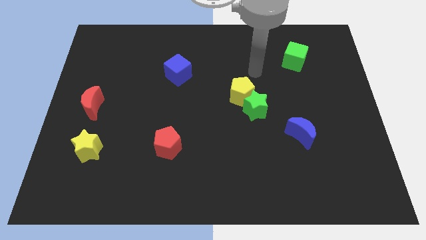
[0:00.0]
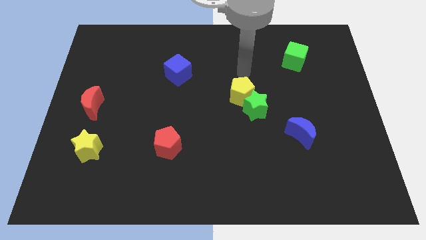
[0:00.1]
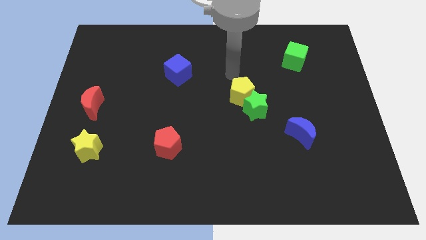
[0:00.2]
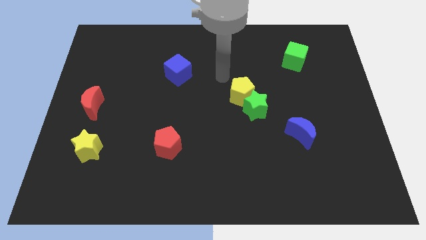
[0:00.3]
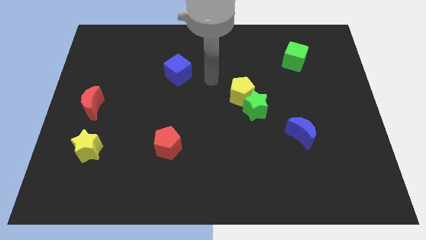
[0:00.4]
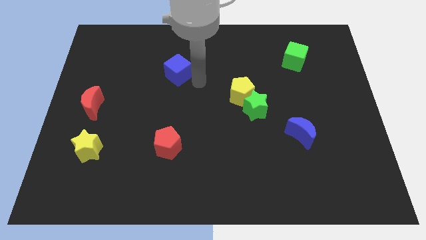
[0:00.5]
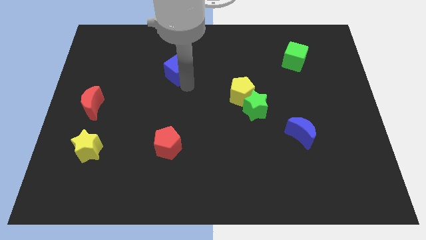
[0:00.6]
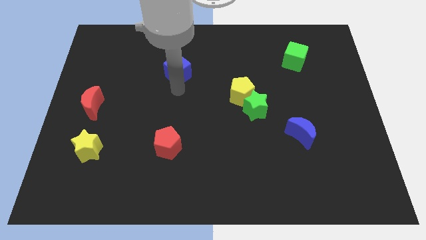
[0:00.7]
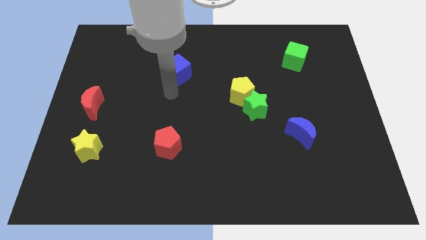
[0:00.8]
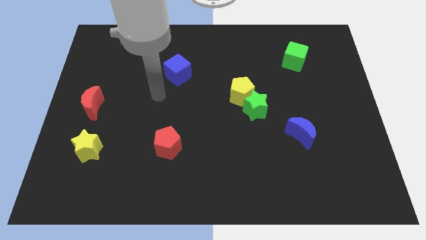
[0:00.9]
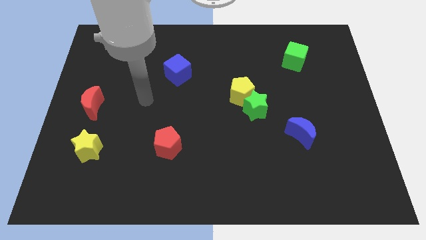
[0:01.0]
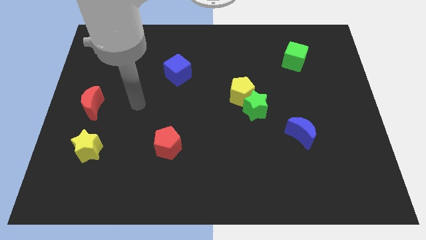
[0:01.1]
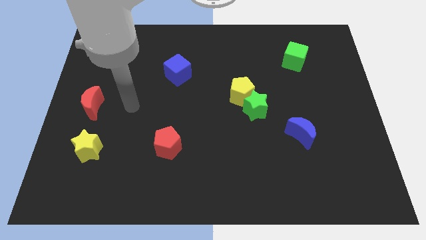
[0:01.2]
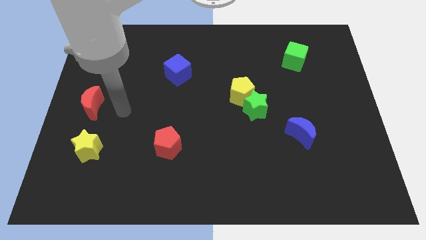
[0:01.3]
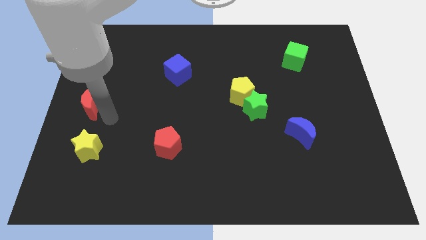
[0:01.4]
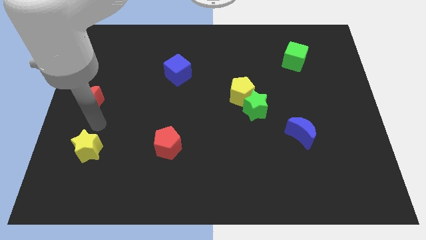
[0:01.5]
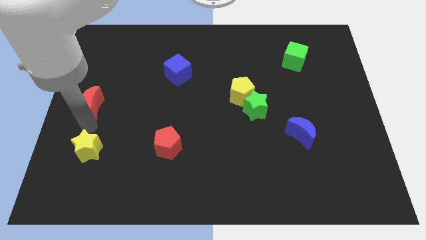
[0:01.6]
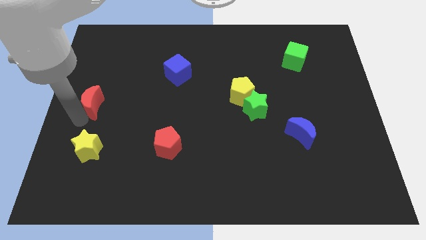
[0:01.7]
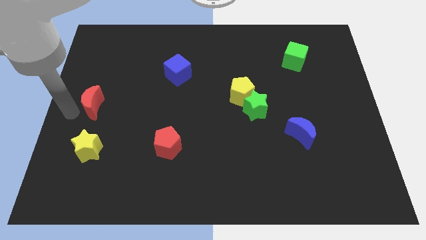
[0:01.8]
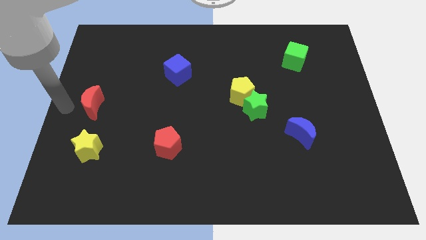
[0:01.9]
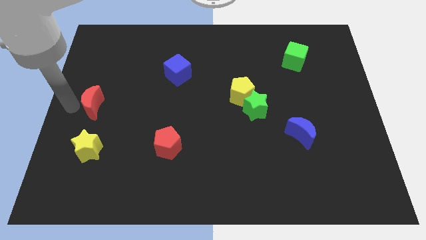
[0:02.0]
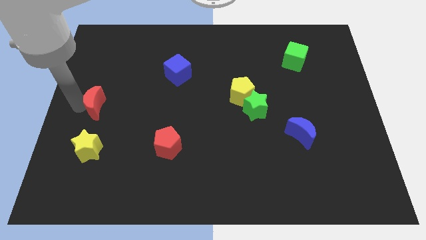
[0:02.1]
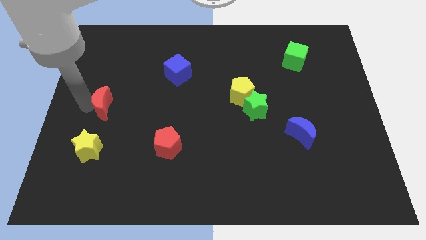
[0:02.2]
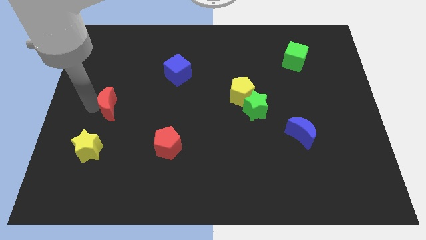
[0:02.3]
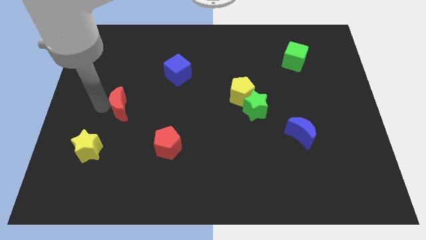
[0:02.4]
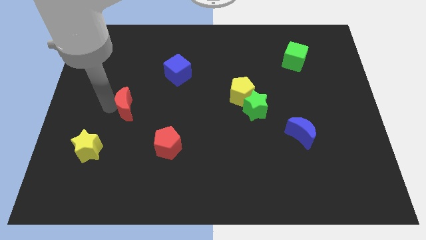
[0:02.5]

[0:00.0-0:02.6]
slightly push the red moon to the right

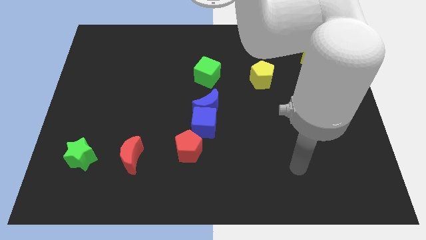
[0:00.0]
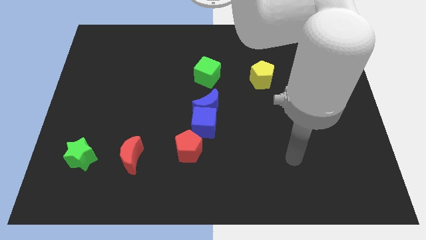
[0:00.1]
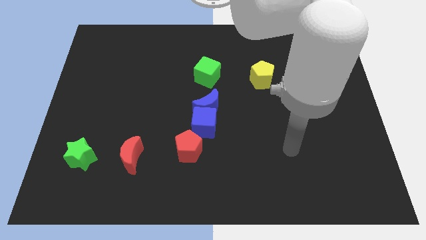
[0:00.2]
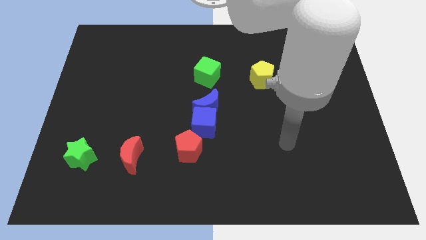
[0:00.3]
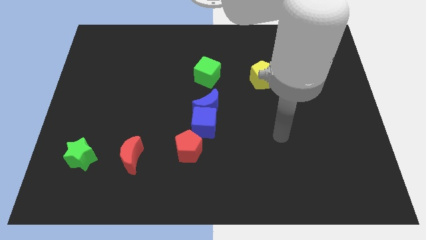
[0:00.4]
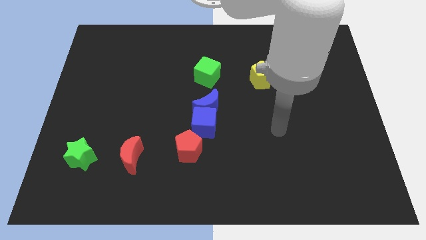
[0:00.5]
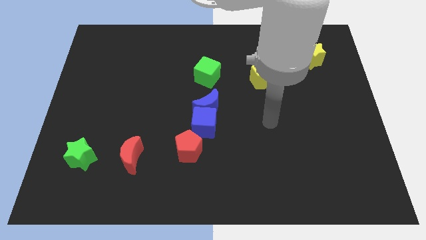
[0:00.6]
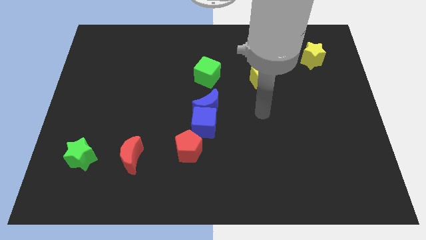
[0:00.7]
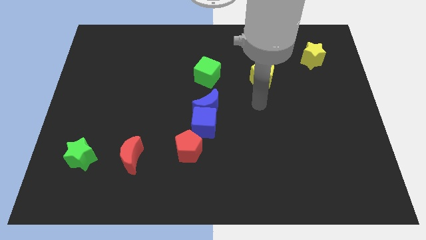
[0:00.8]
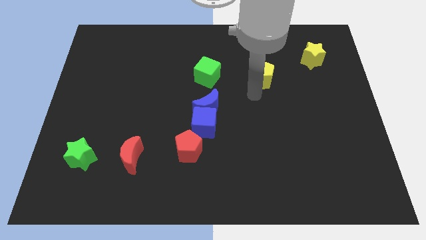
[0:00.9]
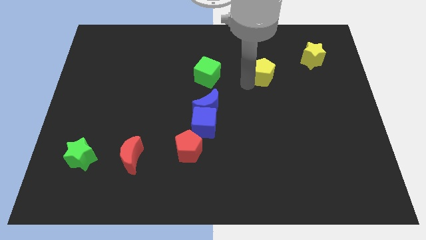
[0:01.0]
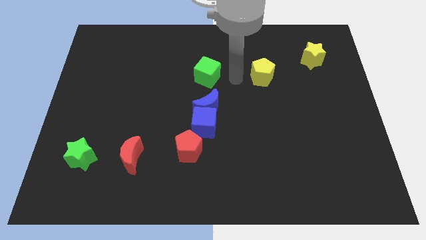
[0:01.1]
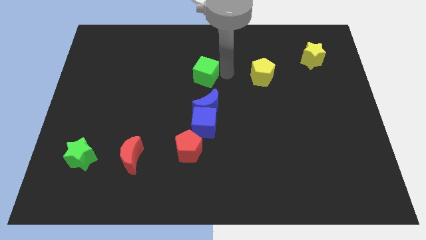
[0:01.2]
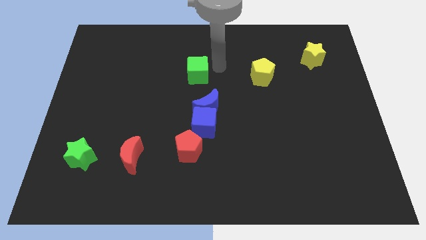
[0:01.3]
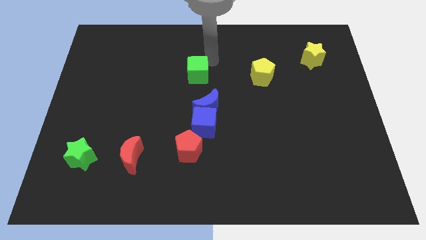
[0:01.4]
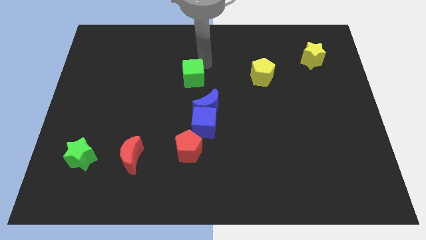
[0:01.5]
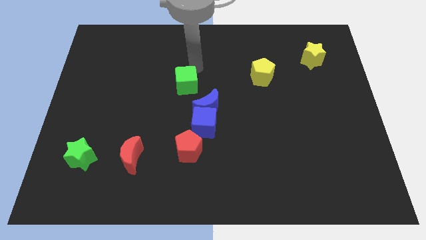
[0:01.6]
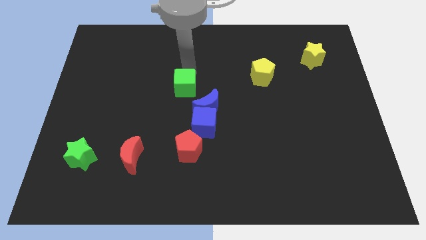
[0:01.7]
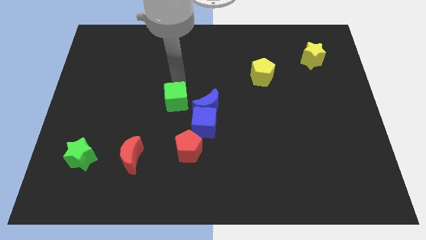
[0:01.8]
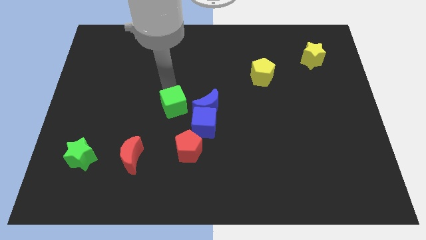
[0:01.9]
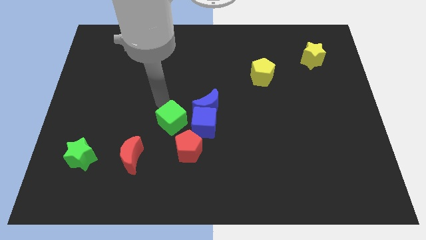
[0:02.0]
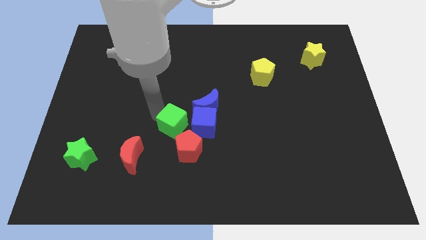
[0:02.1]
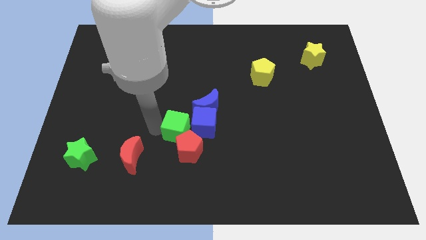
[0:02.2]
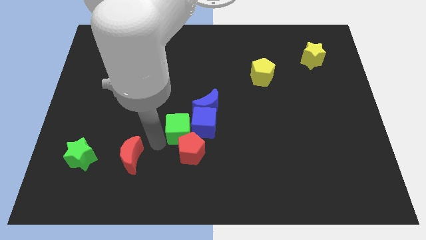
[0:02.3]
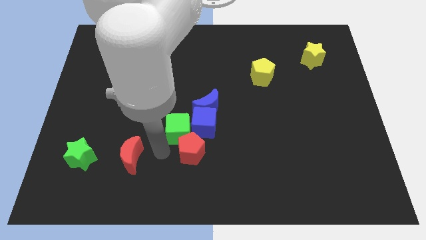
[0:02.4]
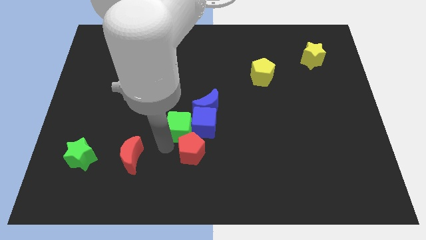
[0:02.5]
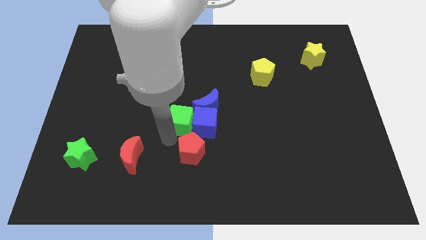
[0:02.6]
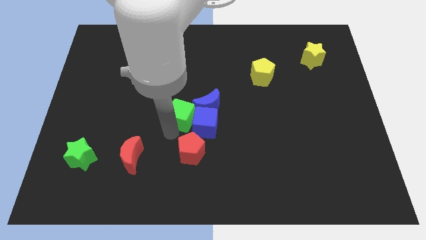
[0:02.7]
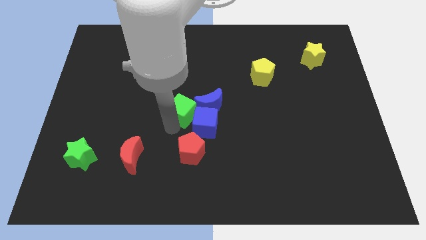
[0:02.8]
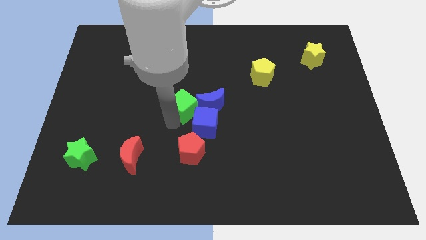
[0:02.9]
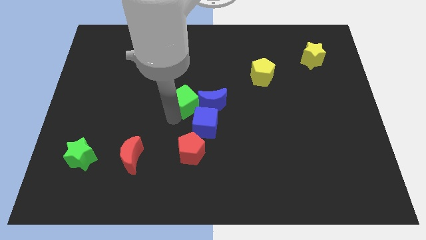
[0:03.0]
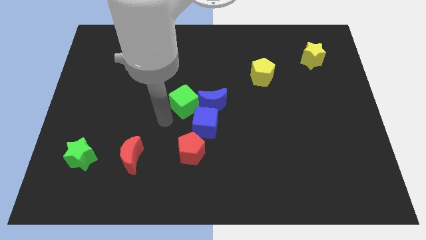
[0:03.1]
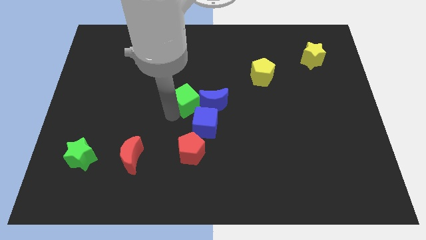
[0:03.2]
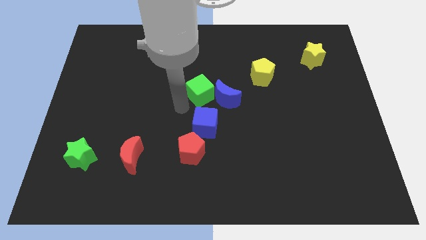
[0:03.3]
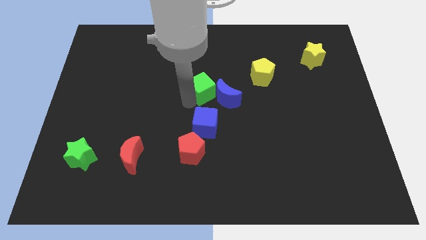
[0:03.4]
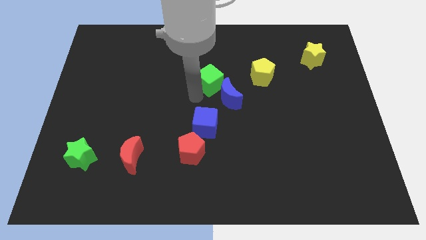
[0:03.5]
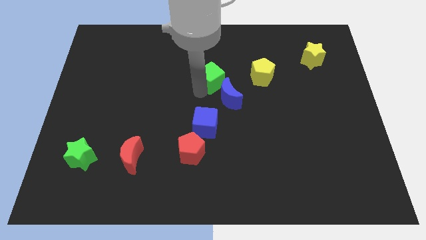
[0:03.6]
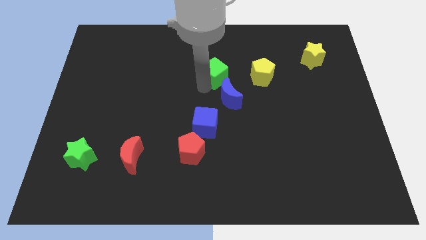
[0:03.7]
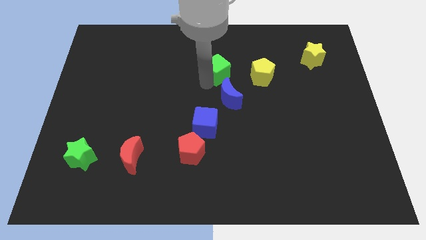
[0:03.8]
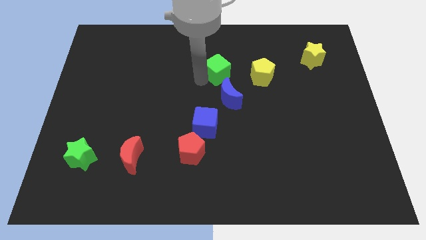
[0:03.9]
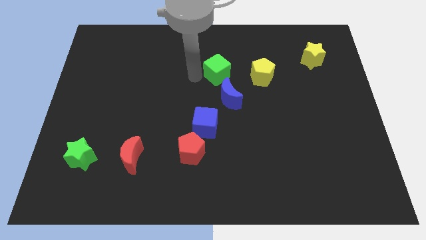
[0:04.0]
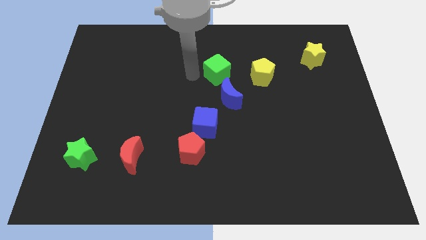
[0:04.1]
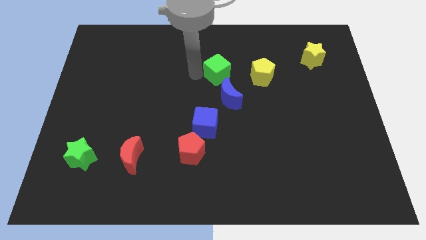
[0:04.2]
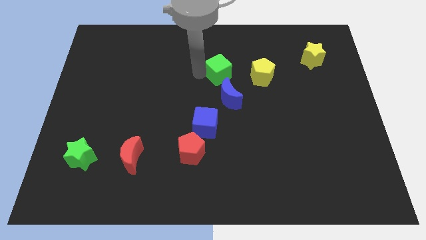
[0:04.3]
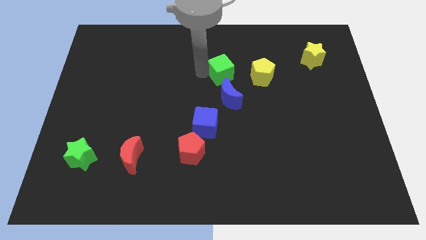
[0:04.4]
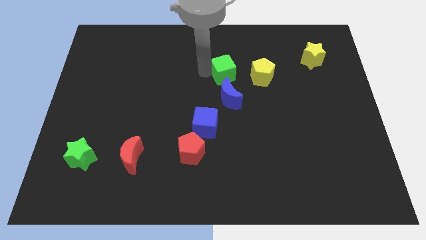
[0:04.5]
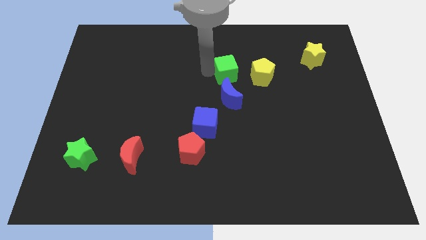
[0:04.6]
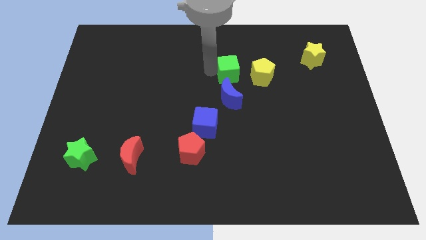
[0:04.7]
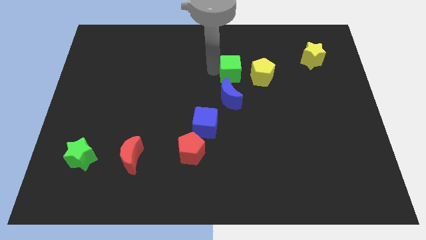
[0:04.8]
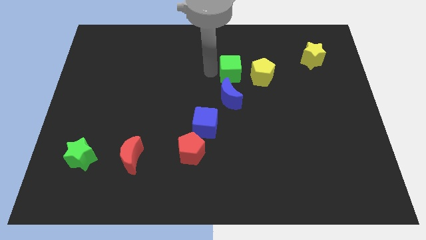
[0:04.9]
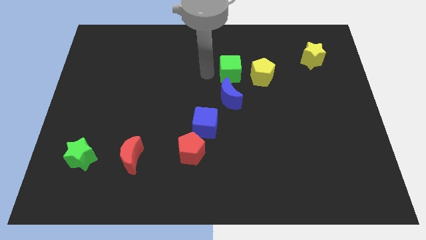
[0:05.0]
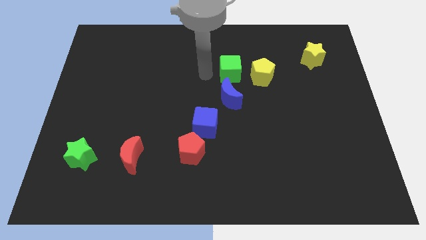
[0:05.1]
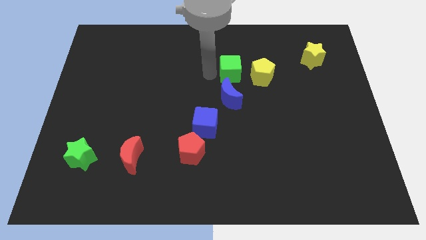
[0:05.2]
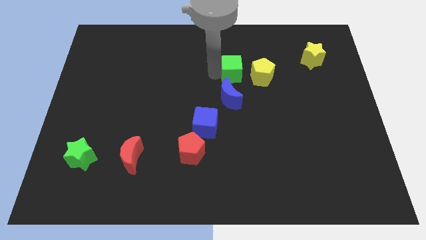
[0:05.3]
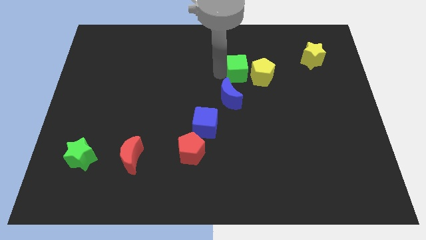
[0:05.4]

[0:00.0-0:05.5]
move the green cube a little bit to the right
